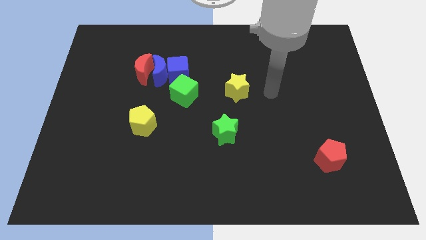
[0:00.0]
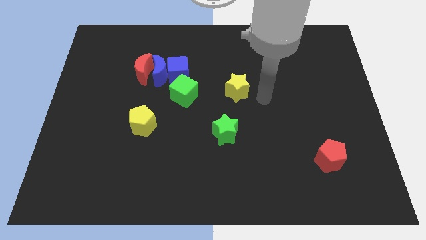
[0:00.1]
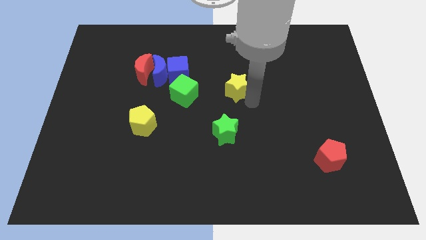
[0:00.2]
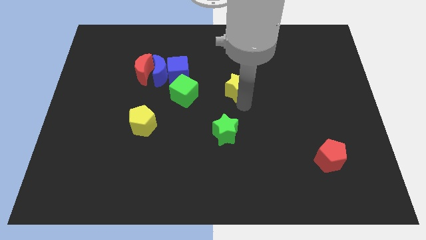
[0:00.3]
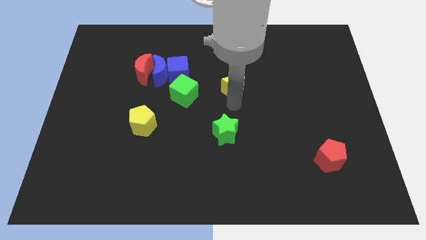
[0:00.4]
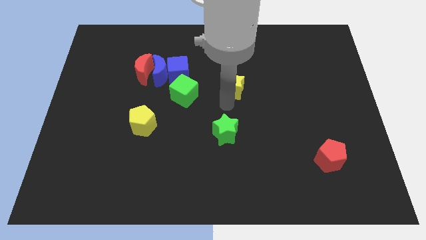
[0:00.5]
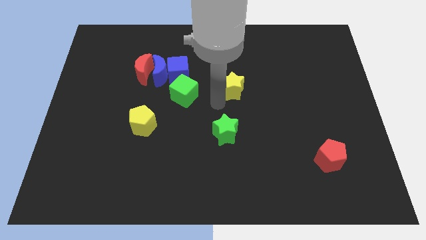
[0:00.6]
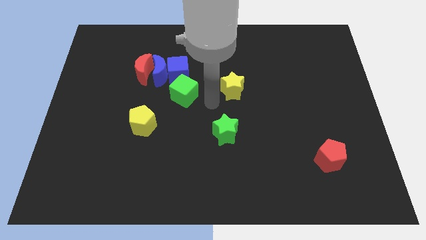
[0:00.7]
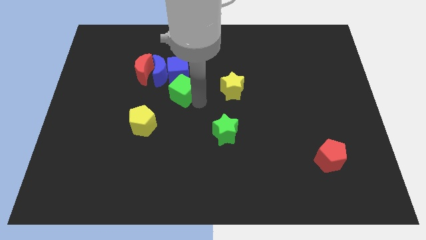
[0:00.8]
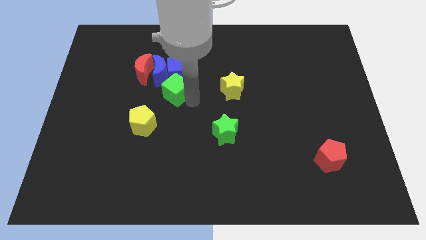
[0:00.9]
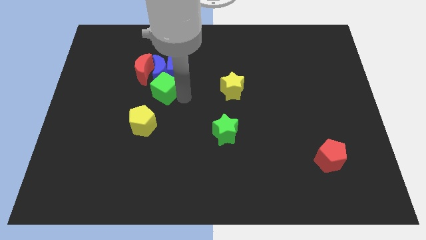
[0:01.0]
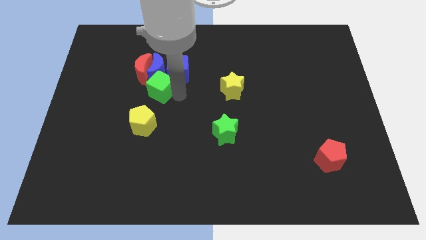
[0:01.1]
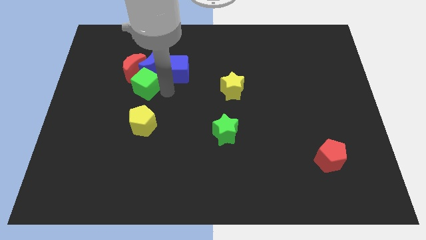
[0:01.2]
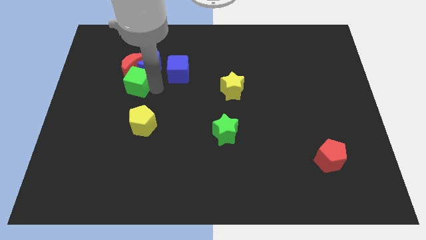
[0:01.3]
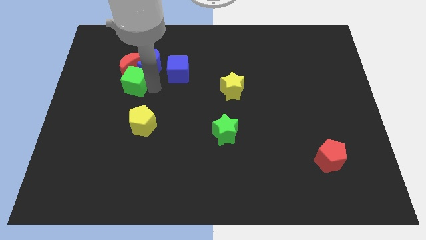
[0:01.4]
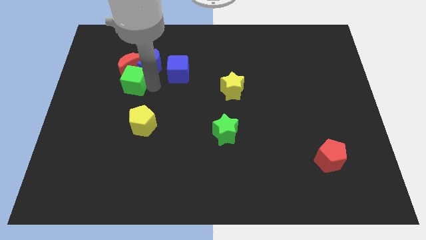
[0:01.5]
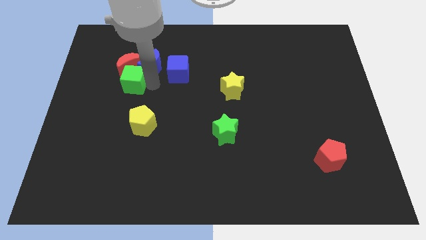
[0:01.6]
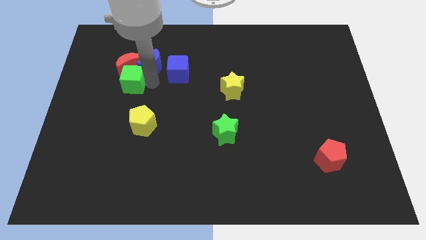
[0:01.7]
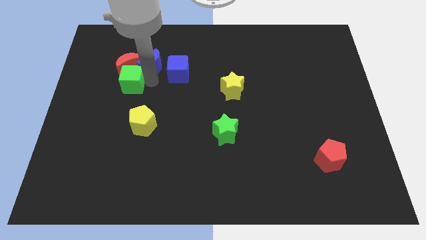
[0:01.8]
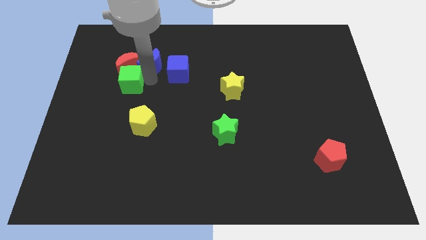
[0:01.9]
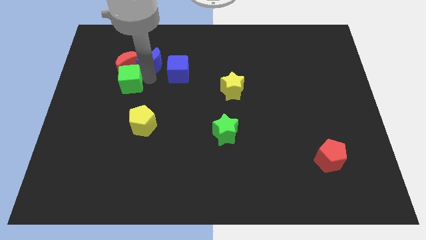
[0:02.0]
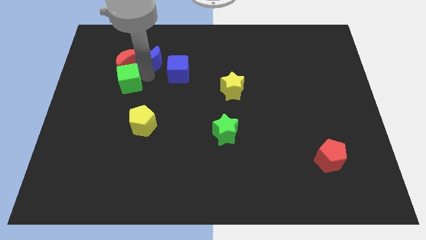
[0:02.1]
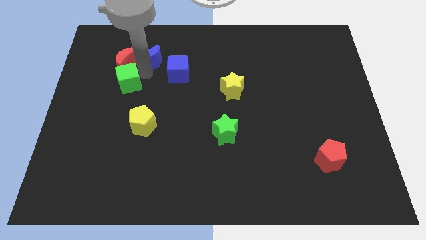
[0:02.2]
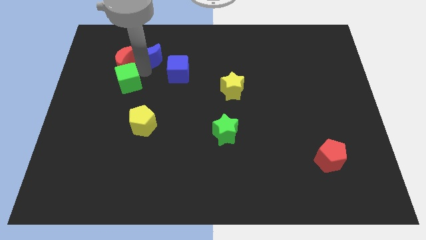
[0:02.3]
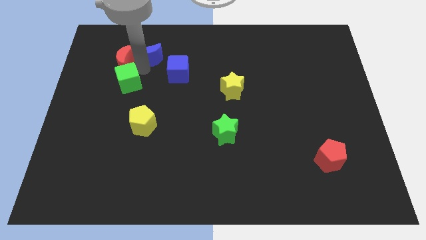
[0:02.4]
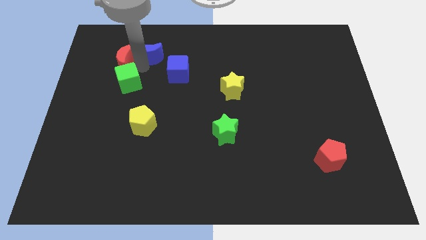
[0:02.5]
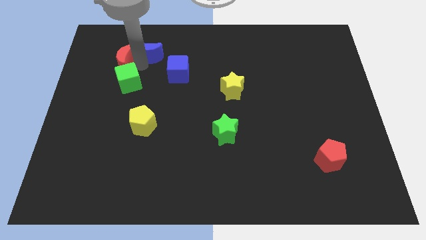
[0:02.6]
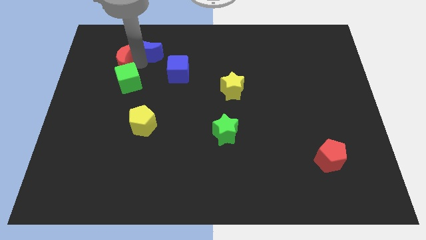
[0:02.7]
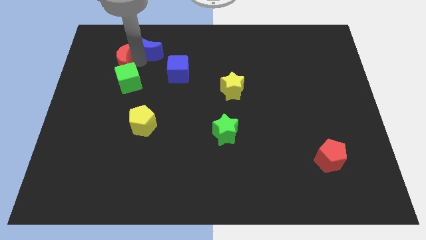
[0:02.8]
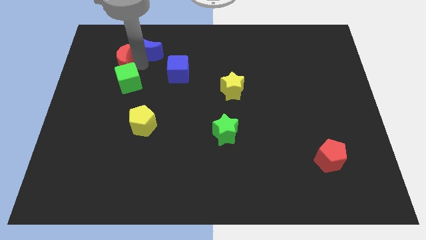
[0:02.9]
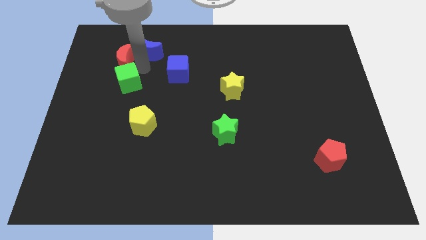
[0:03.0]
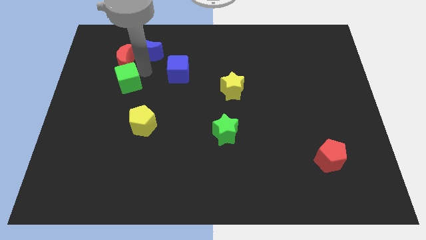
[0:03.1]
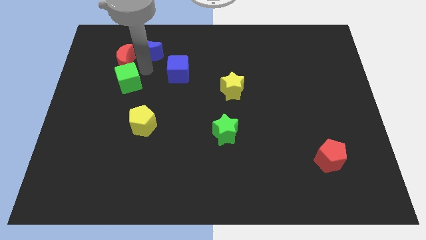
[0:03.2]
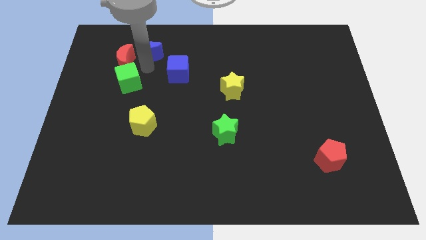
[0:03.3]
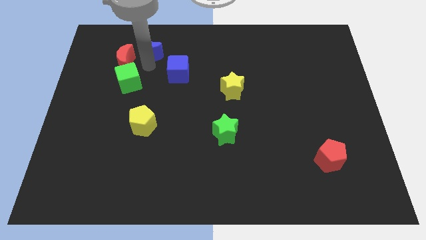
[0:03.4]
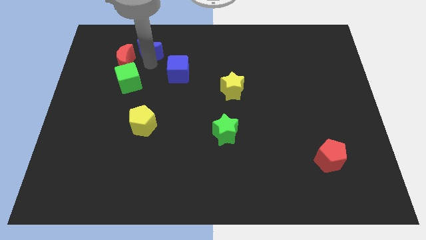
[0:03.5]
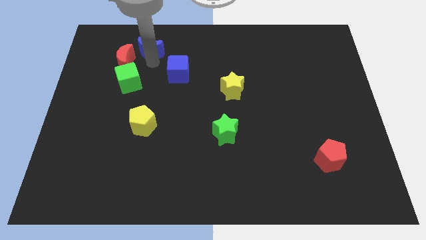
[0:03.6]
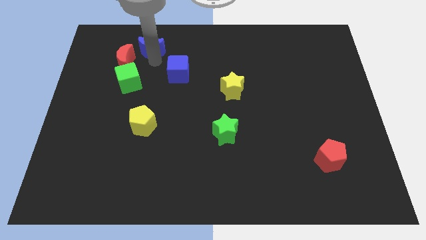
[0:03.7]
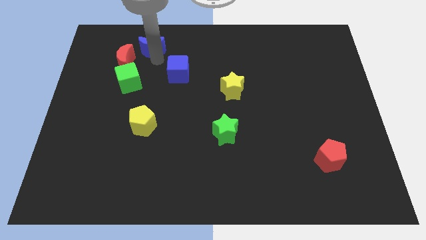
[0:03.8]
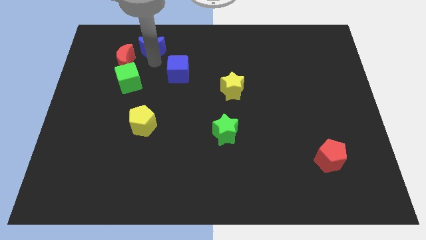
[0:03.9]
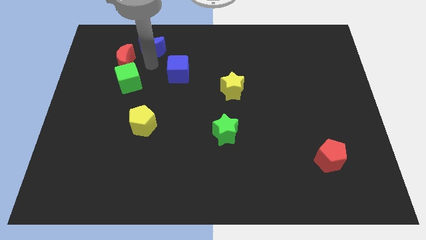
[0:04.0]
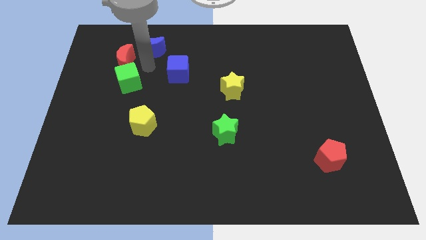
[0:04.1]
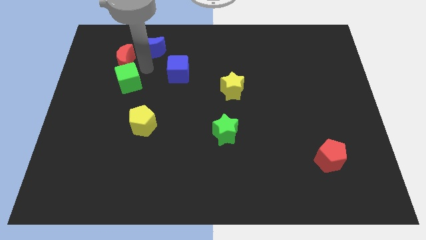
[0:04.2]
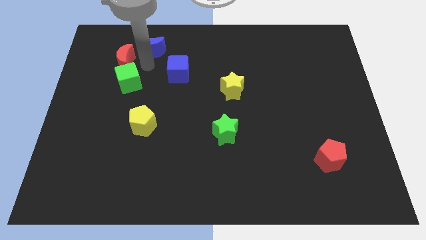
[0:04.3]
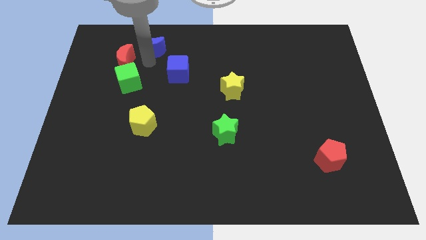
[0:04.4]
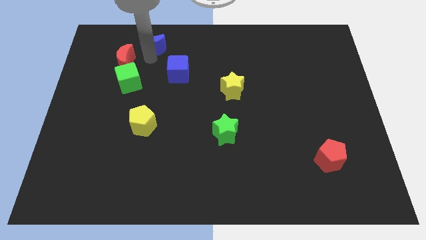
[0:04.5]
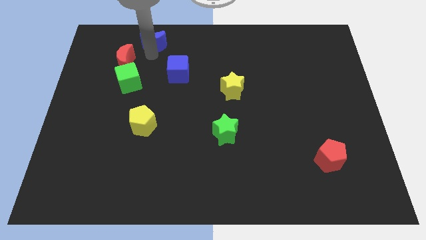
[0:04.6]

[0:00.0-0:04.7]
separate the blue moon from the red moon, blue cube, and green cube

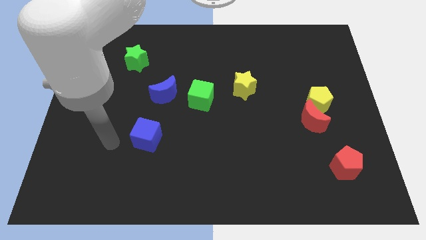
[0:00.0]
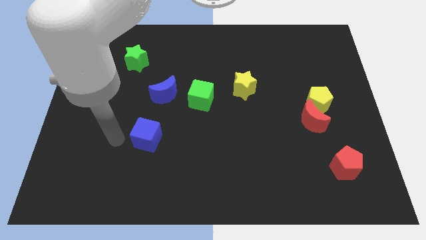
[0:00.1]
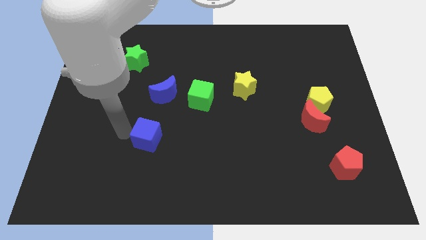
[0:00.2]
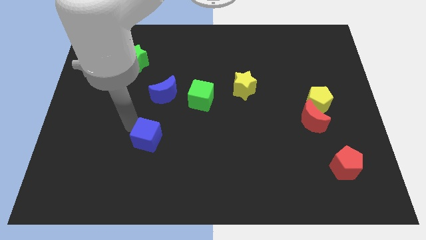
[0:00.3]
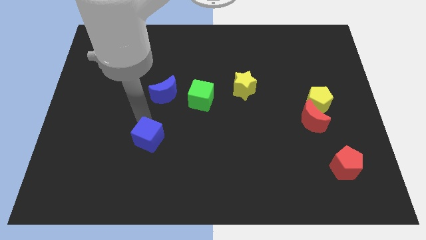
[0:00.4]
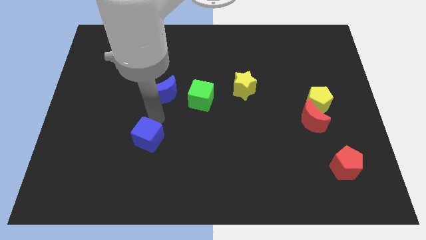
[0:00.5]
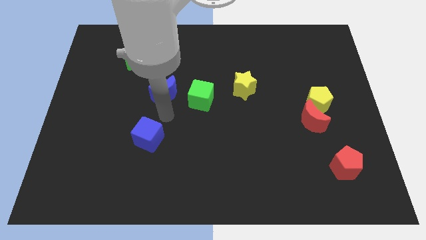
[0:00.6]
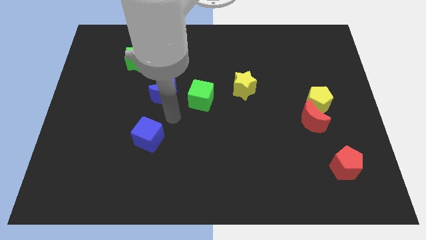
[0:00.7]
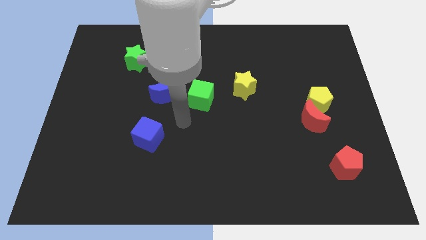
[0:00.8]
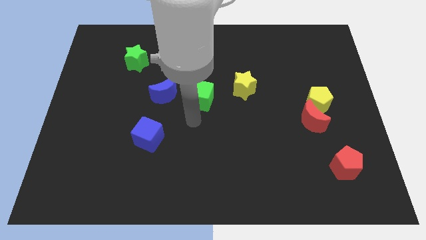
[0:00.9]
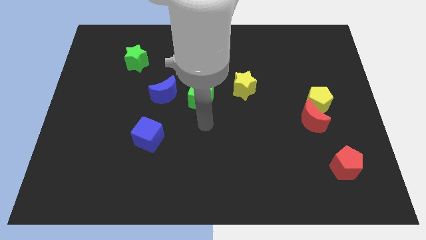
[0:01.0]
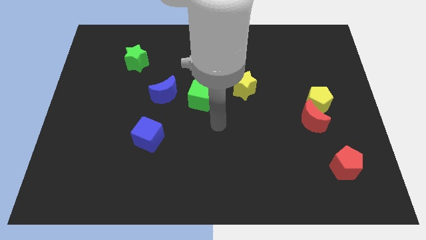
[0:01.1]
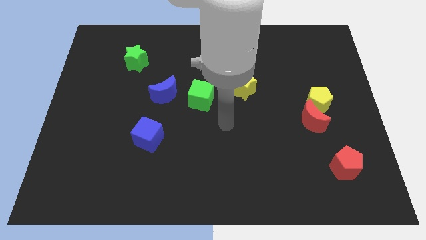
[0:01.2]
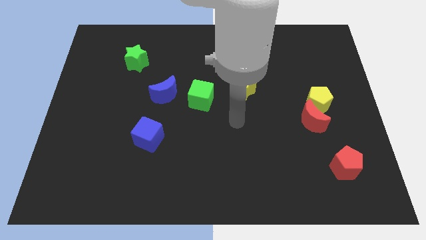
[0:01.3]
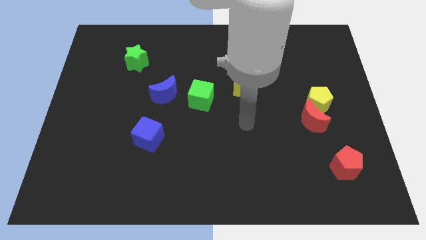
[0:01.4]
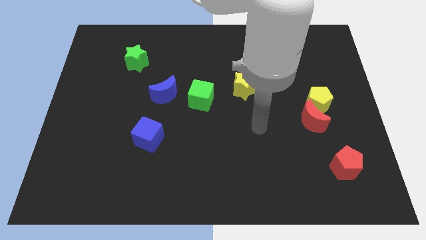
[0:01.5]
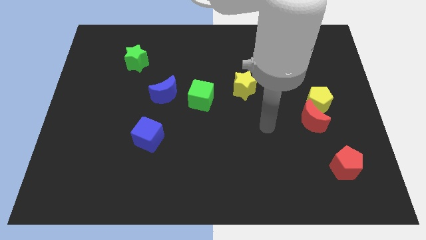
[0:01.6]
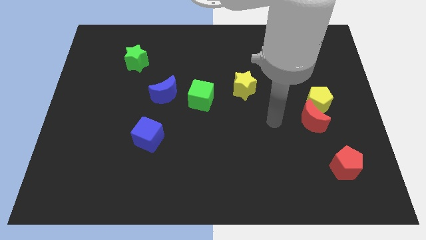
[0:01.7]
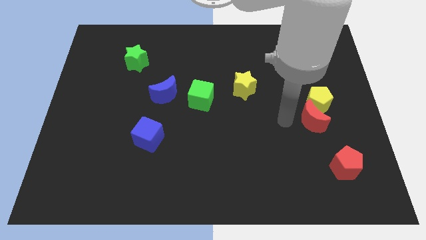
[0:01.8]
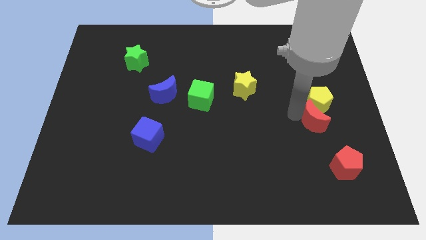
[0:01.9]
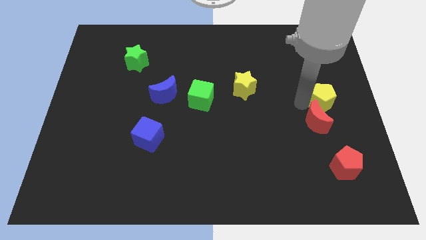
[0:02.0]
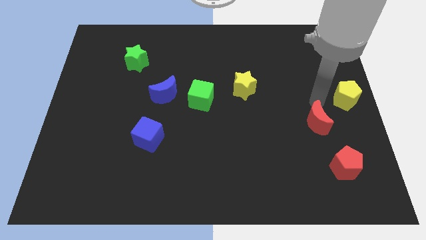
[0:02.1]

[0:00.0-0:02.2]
separate the red moon from the yellow pentagon

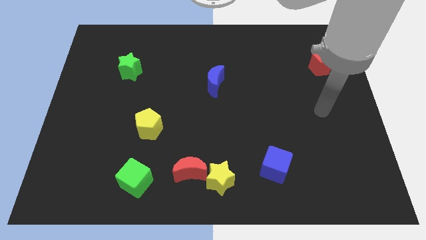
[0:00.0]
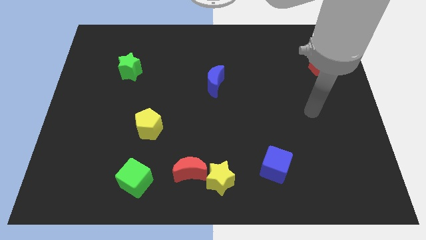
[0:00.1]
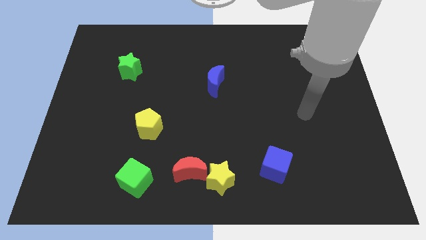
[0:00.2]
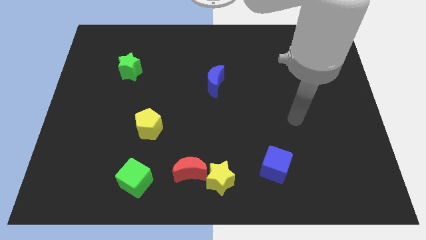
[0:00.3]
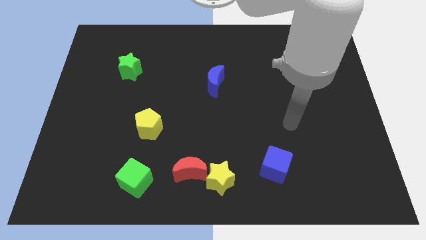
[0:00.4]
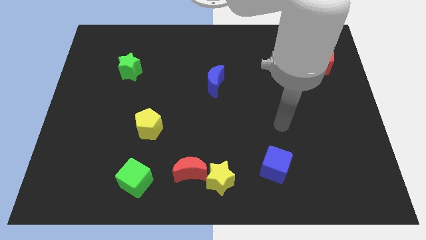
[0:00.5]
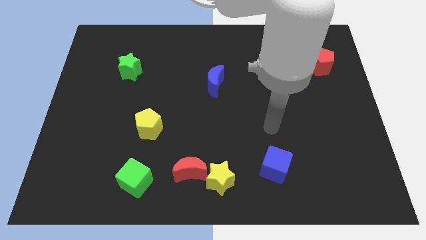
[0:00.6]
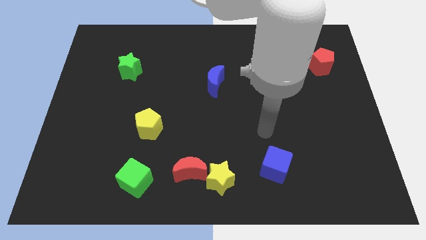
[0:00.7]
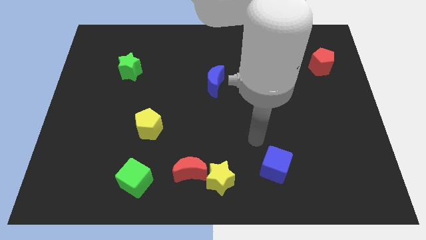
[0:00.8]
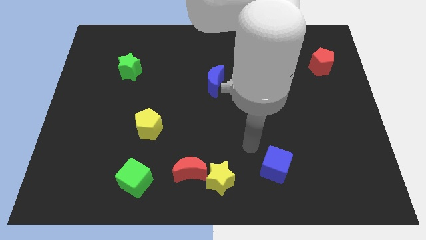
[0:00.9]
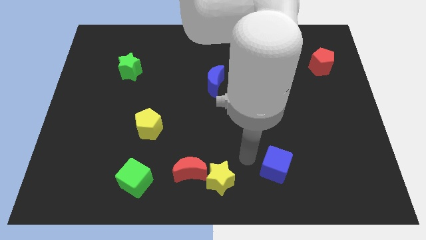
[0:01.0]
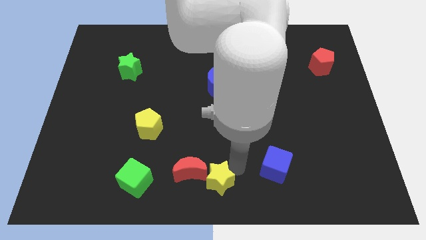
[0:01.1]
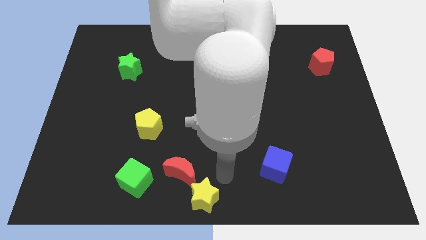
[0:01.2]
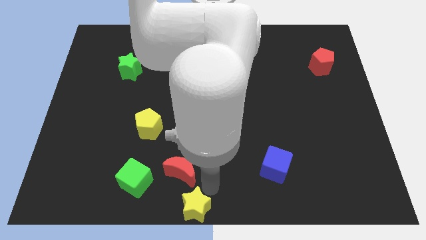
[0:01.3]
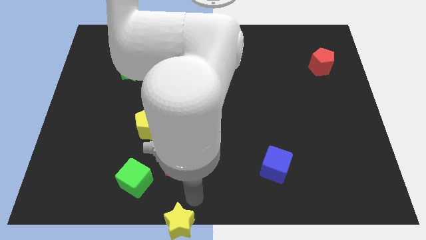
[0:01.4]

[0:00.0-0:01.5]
separate the red moon from the yellow star

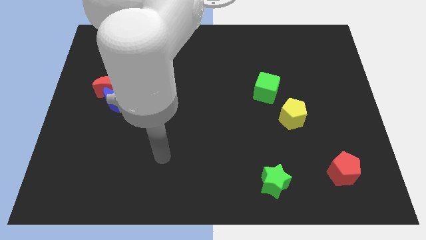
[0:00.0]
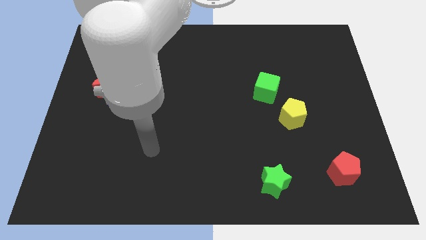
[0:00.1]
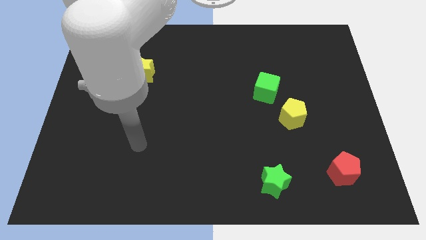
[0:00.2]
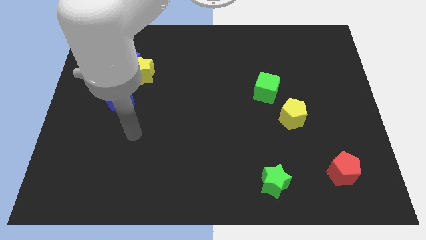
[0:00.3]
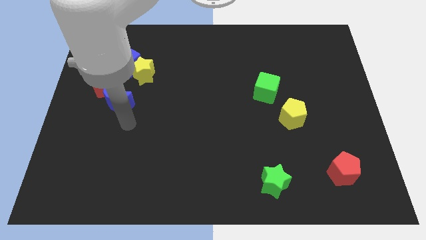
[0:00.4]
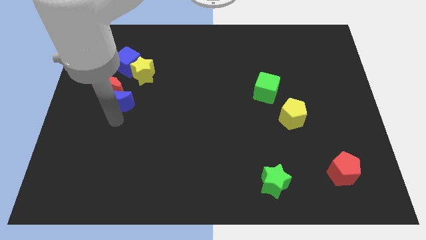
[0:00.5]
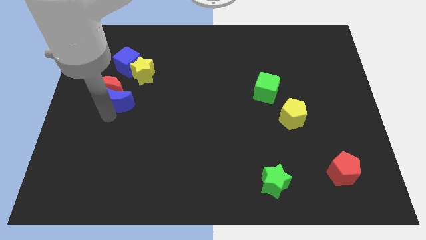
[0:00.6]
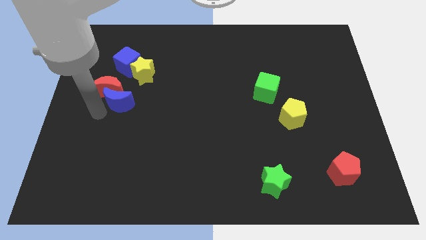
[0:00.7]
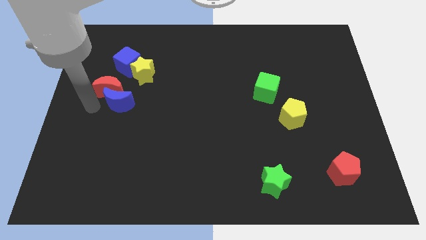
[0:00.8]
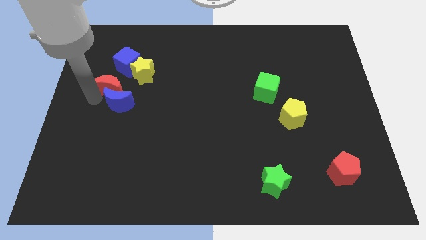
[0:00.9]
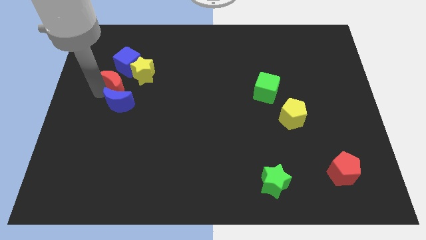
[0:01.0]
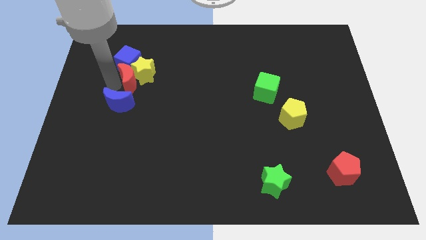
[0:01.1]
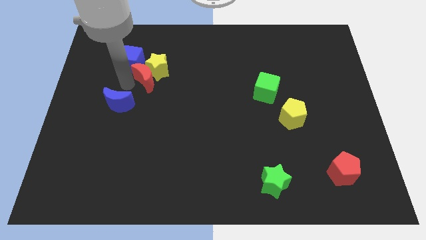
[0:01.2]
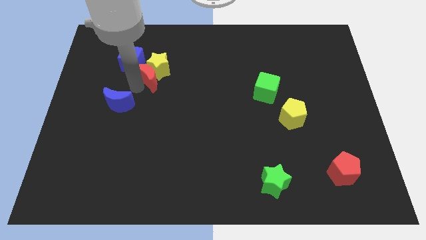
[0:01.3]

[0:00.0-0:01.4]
move the blue moon away from the red moon
